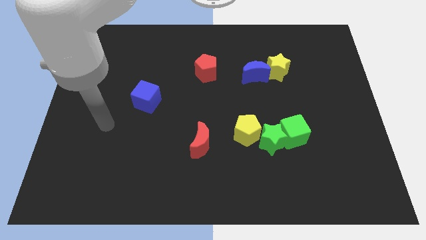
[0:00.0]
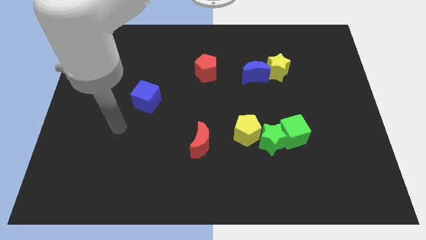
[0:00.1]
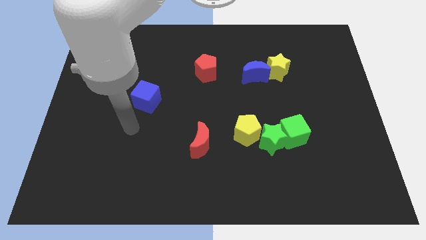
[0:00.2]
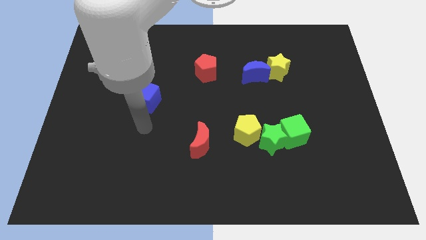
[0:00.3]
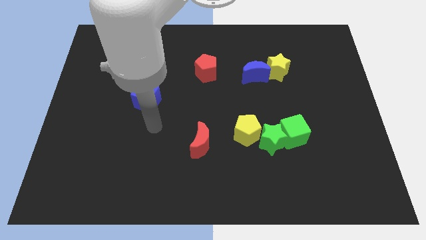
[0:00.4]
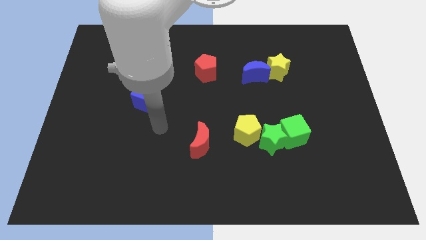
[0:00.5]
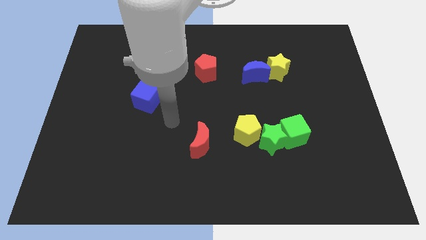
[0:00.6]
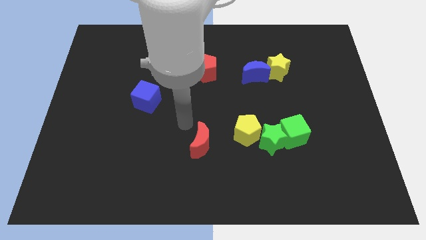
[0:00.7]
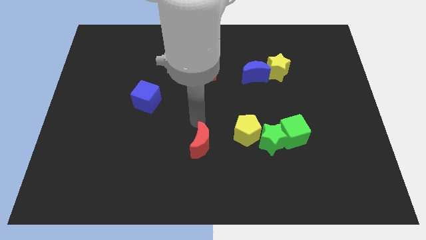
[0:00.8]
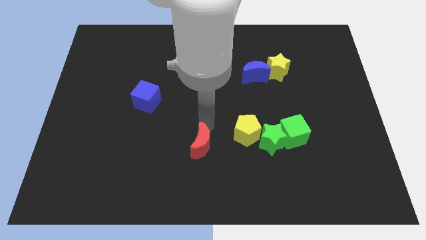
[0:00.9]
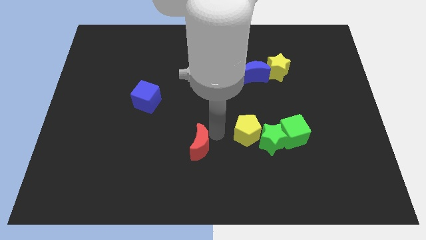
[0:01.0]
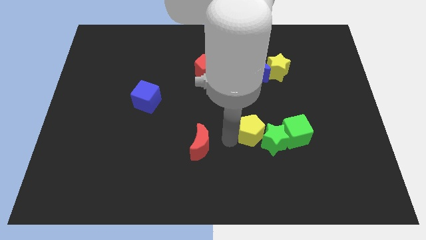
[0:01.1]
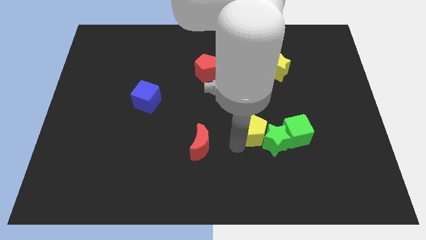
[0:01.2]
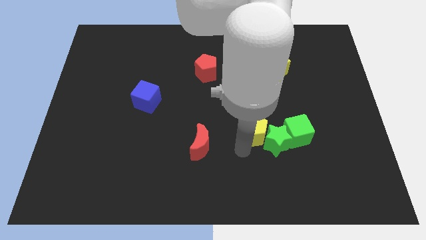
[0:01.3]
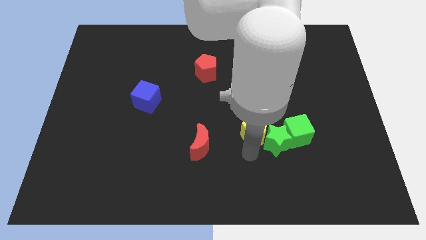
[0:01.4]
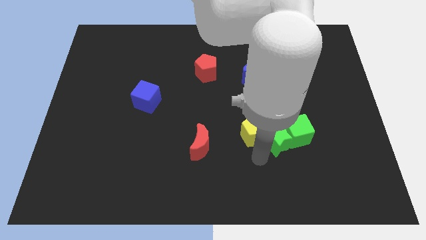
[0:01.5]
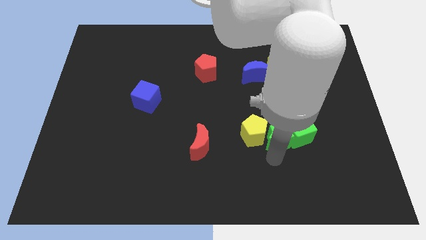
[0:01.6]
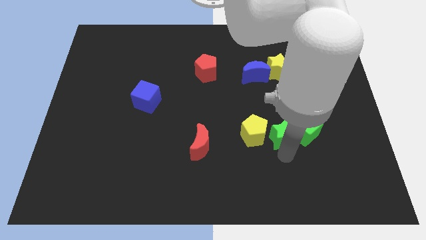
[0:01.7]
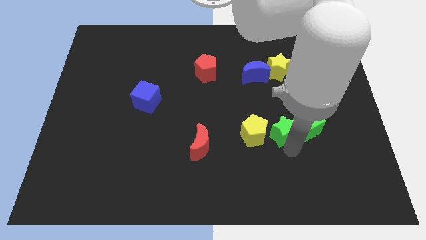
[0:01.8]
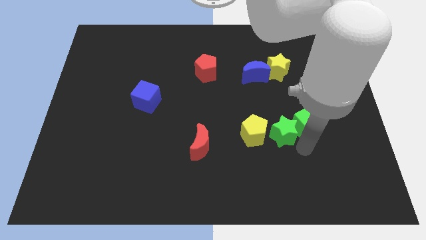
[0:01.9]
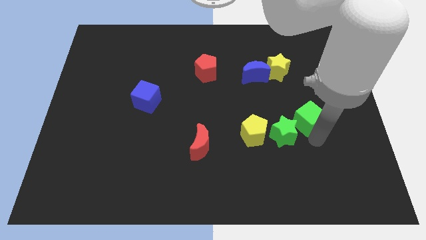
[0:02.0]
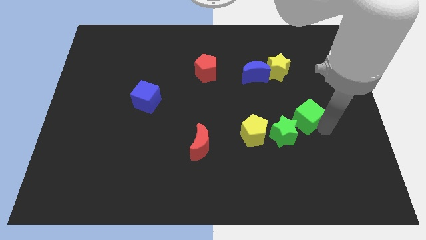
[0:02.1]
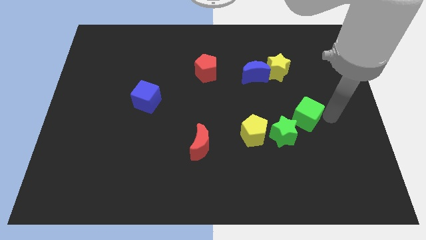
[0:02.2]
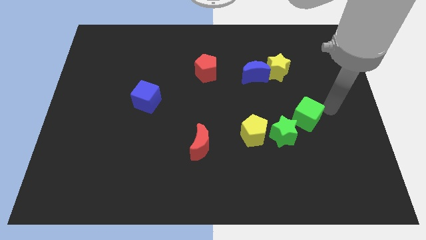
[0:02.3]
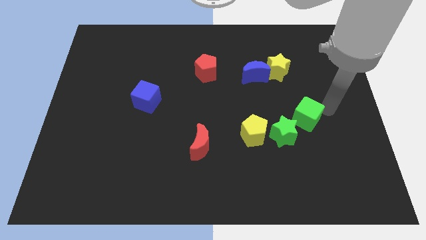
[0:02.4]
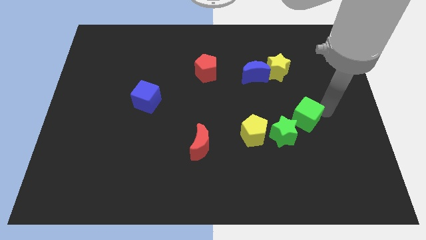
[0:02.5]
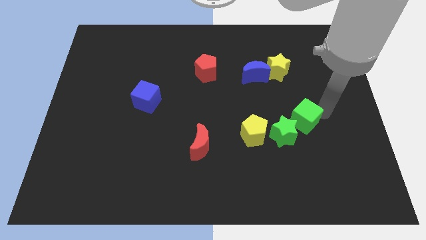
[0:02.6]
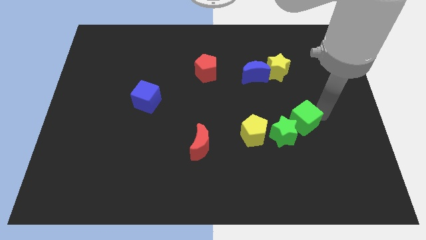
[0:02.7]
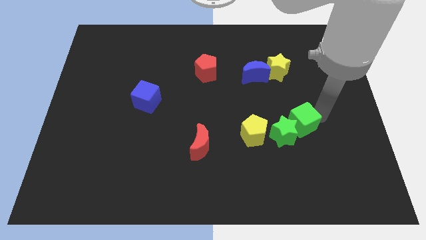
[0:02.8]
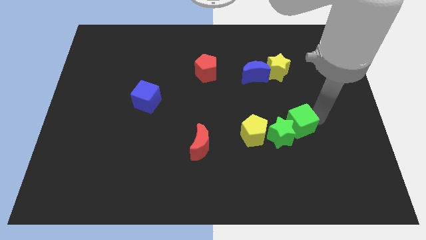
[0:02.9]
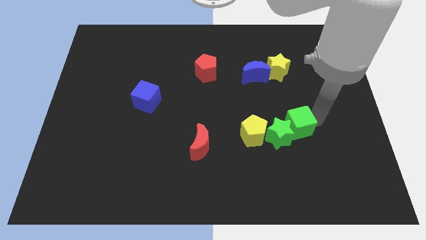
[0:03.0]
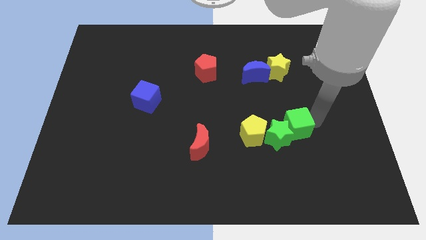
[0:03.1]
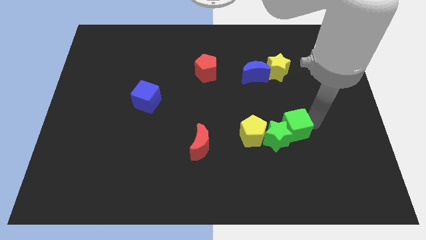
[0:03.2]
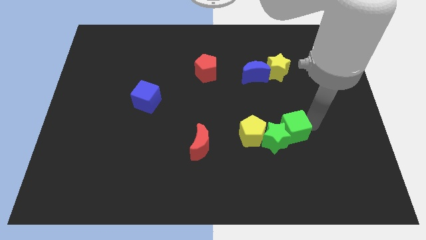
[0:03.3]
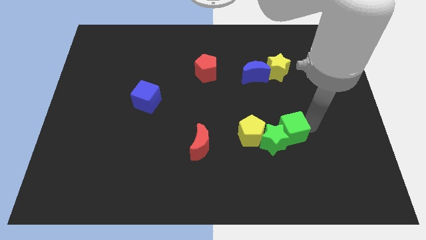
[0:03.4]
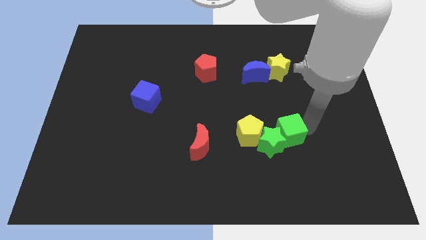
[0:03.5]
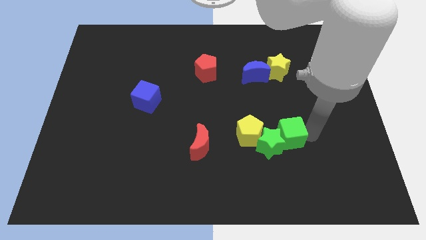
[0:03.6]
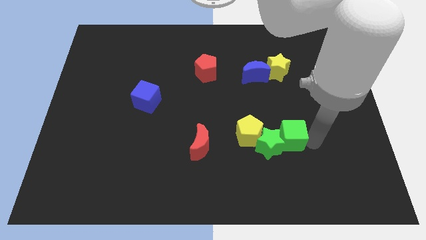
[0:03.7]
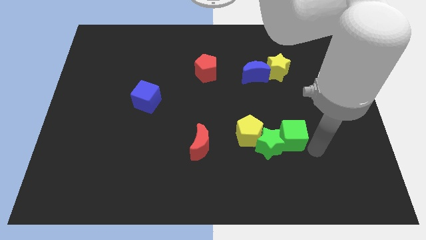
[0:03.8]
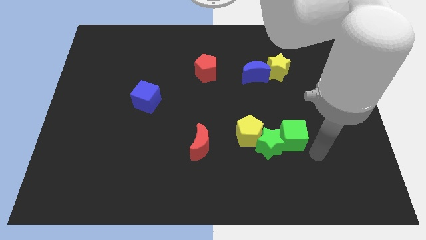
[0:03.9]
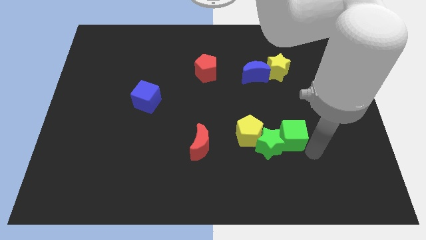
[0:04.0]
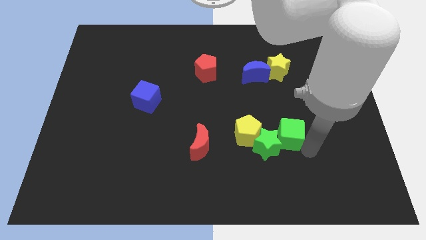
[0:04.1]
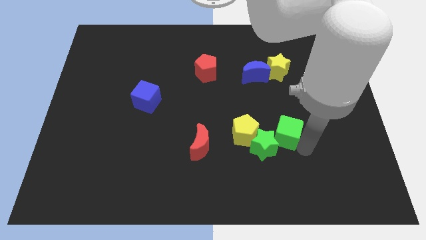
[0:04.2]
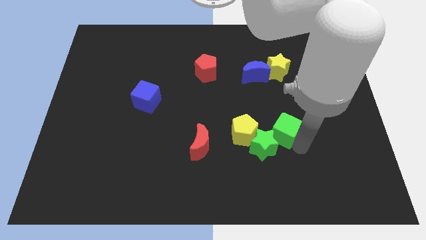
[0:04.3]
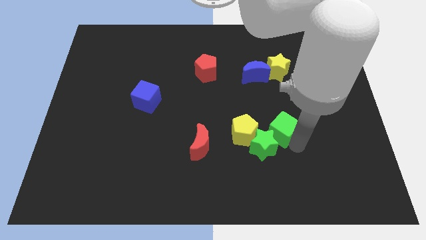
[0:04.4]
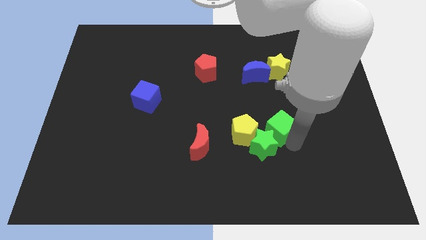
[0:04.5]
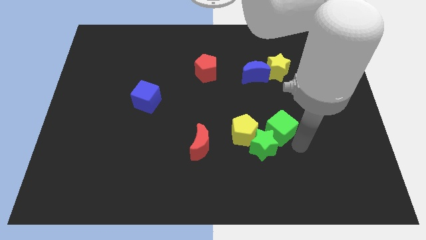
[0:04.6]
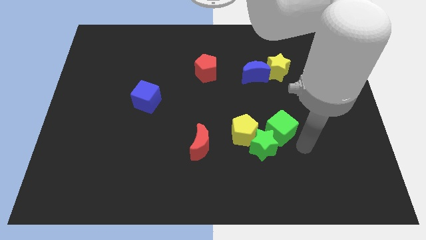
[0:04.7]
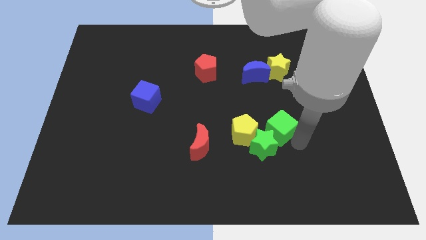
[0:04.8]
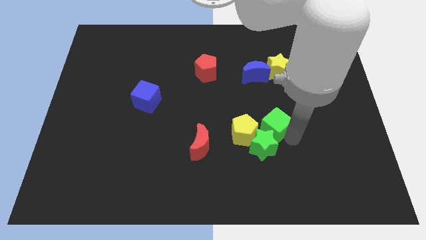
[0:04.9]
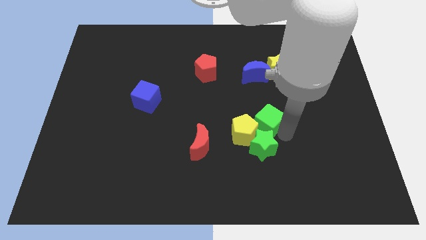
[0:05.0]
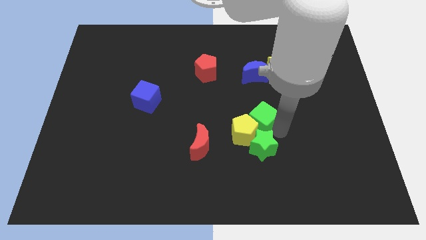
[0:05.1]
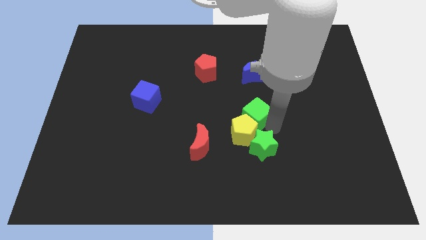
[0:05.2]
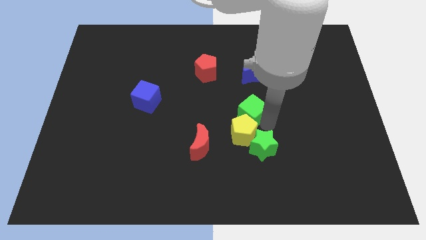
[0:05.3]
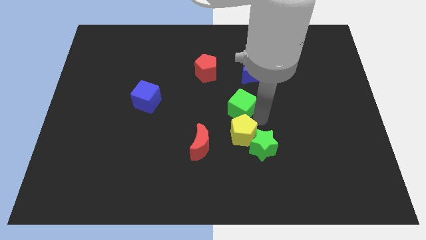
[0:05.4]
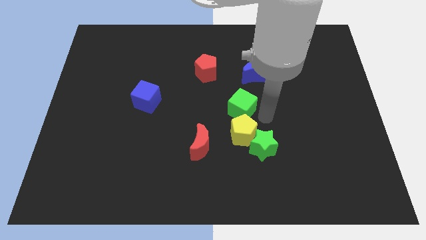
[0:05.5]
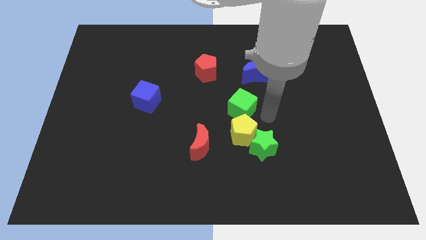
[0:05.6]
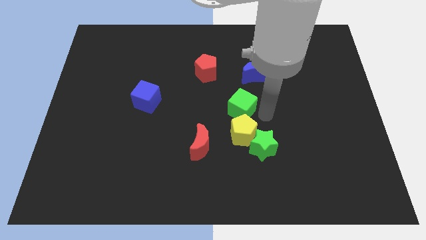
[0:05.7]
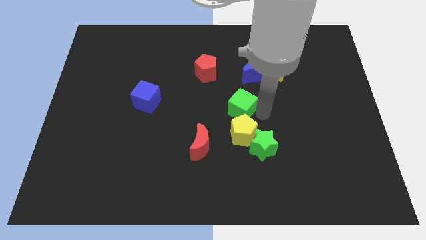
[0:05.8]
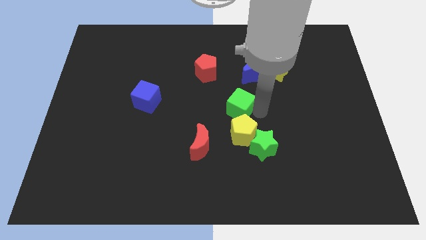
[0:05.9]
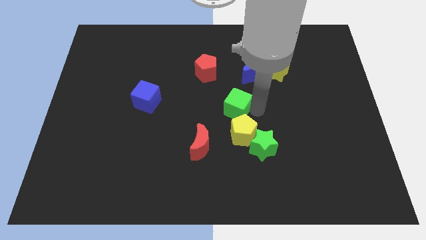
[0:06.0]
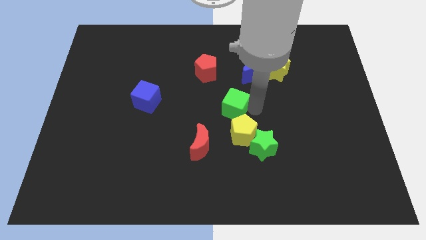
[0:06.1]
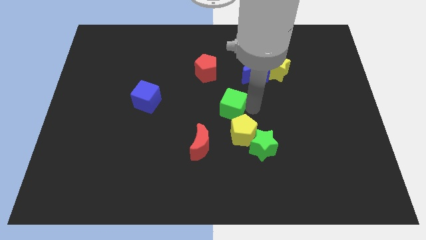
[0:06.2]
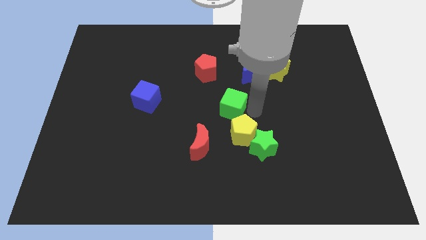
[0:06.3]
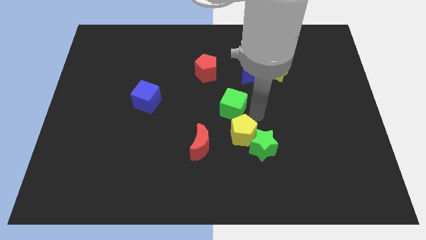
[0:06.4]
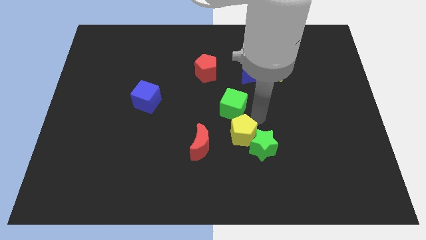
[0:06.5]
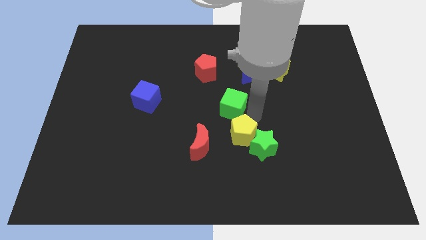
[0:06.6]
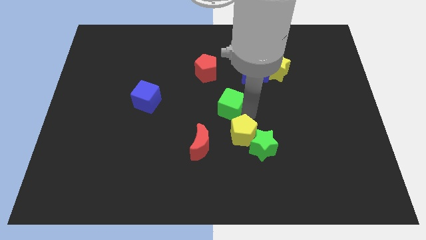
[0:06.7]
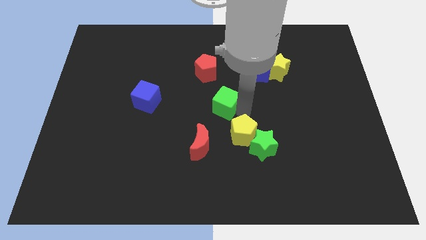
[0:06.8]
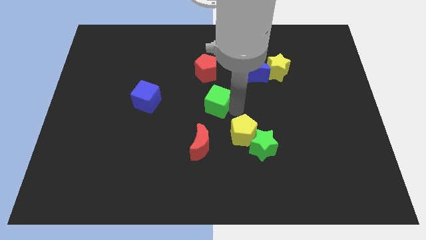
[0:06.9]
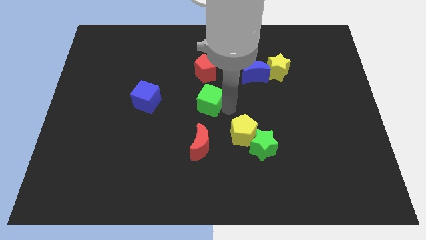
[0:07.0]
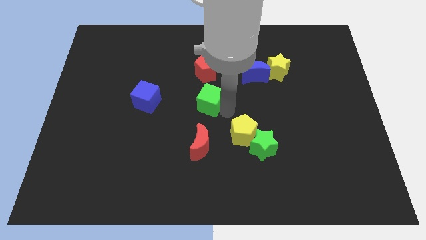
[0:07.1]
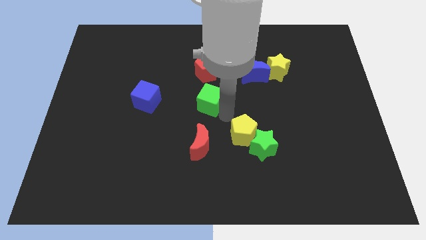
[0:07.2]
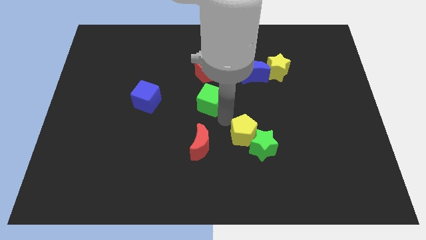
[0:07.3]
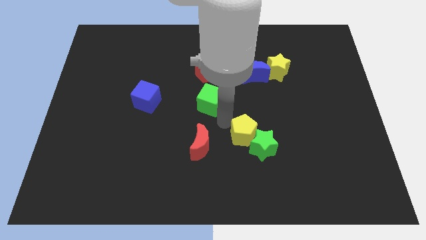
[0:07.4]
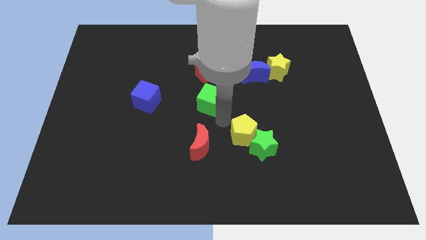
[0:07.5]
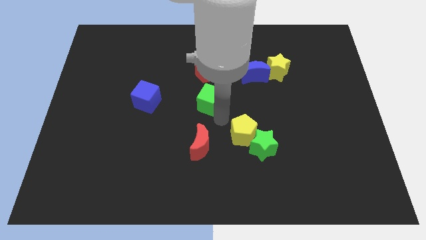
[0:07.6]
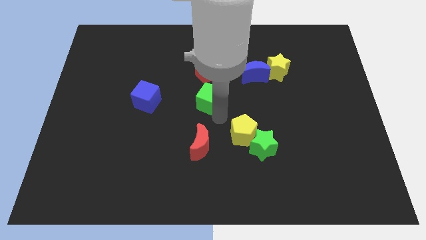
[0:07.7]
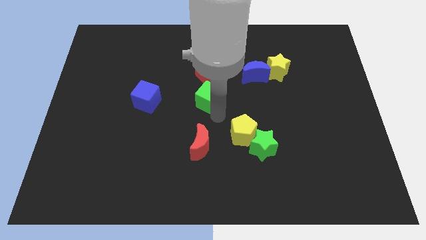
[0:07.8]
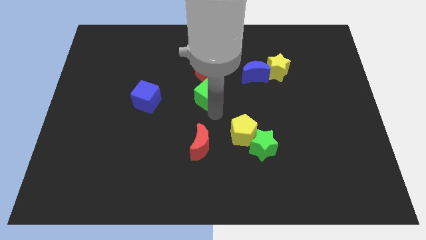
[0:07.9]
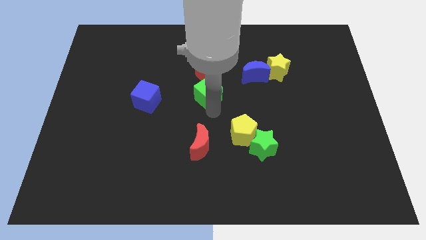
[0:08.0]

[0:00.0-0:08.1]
slide the green cube upwards and left diagonally
